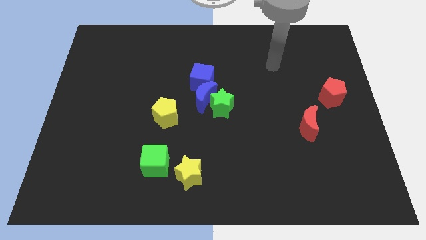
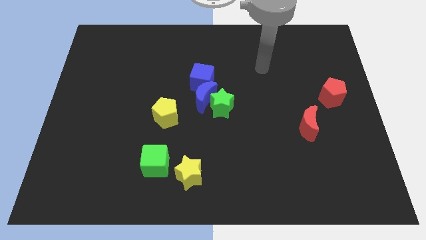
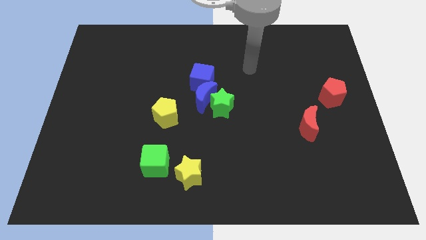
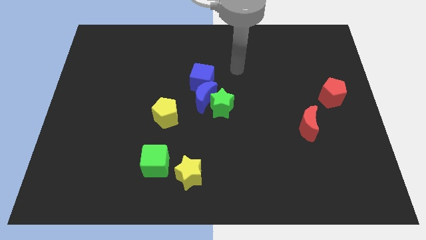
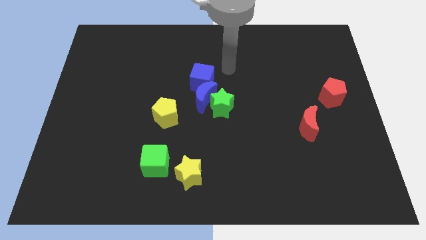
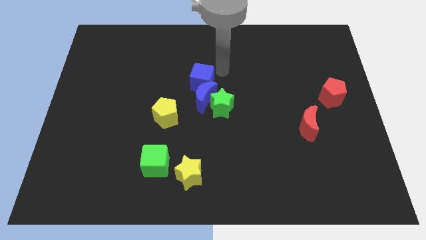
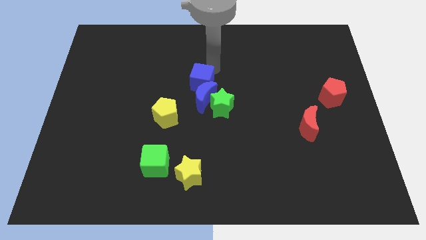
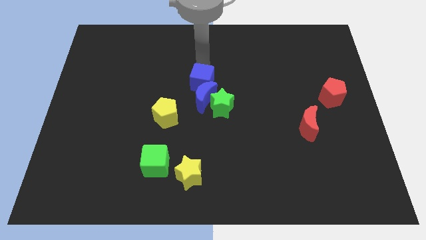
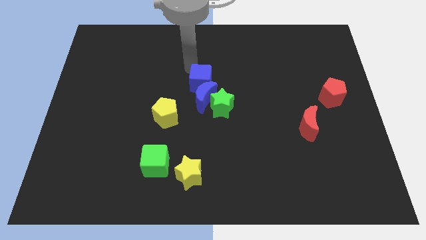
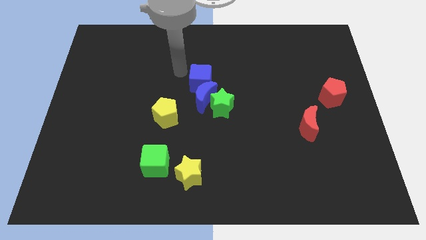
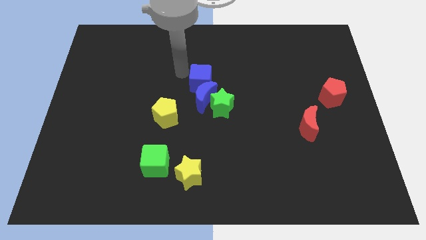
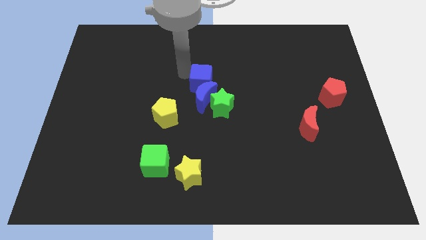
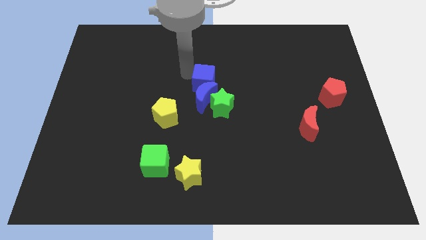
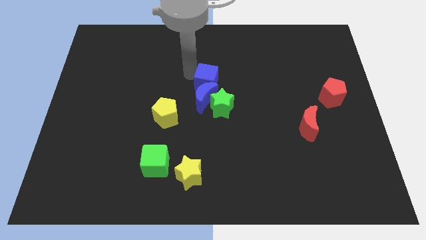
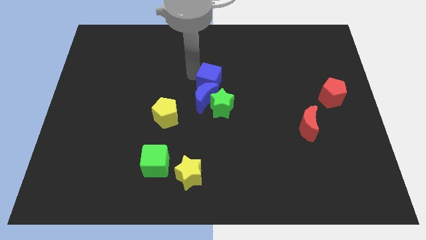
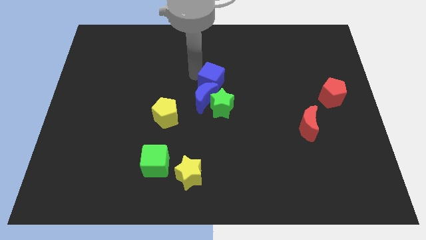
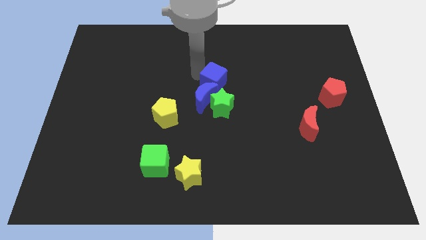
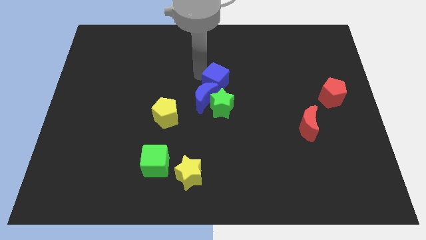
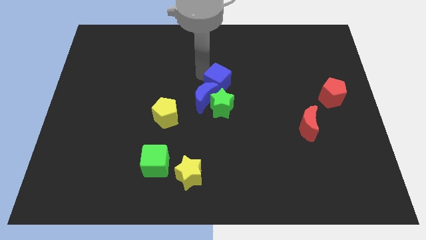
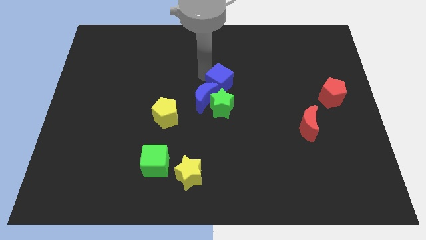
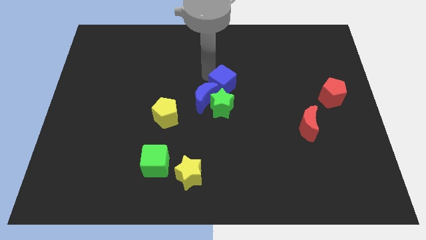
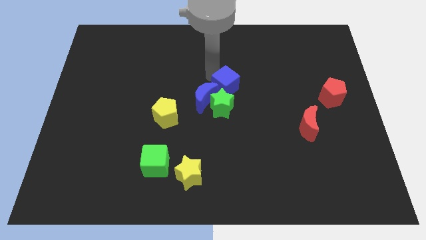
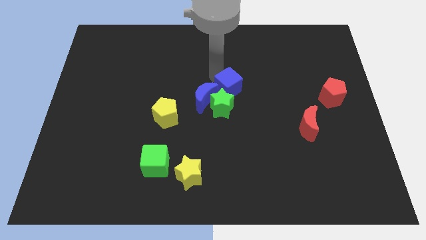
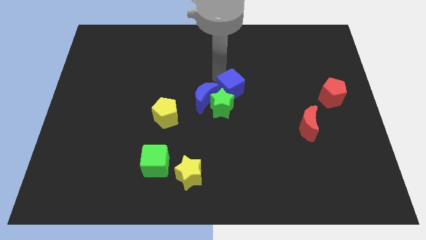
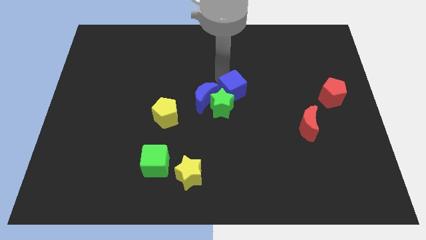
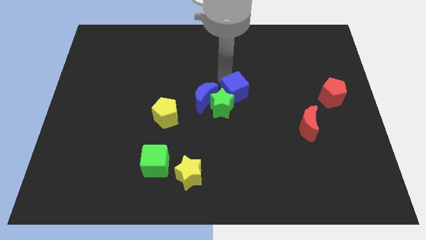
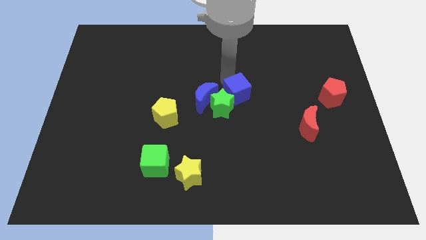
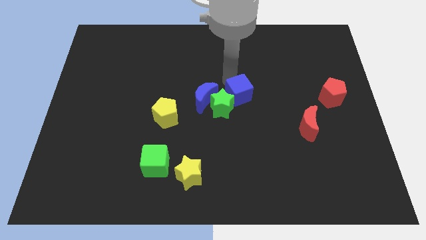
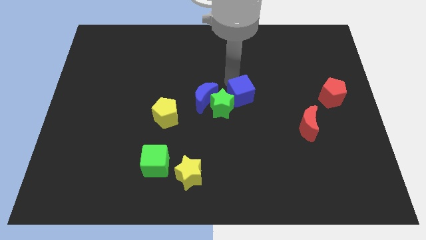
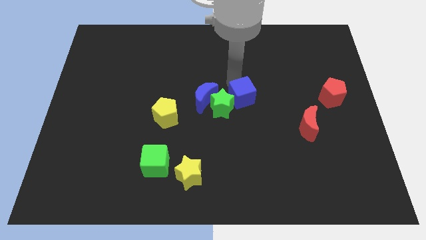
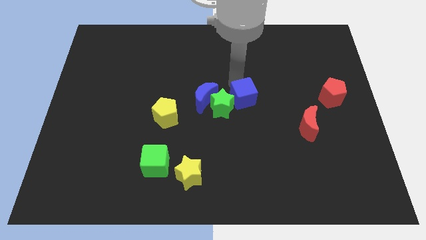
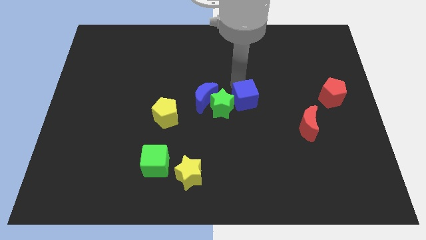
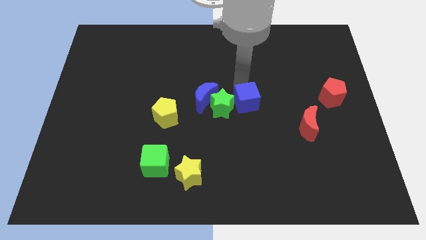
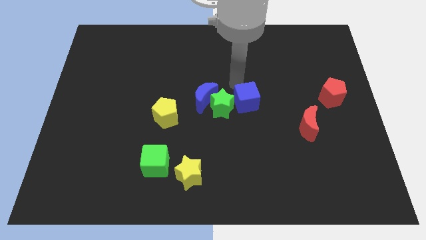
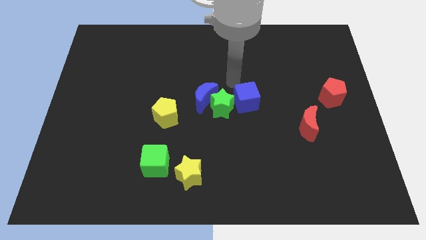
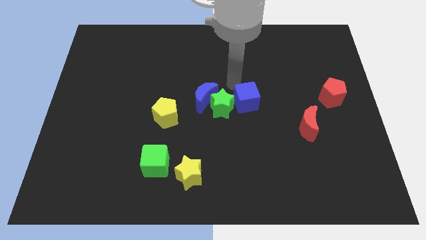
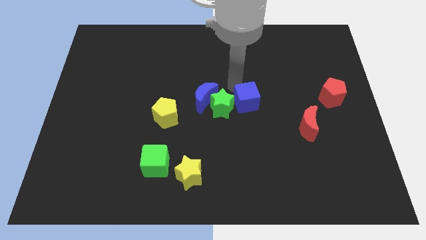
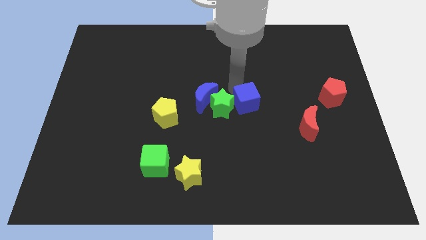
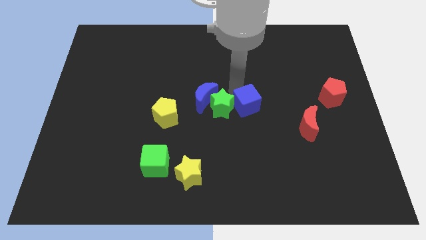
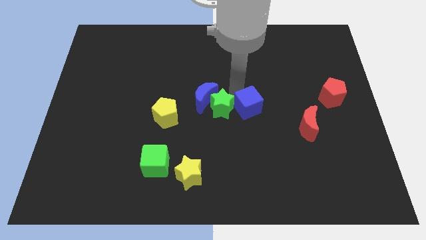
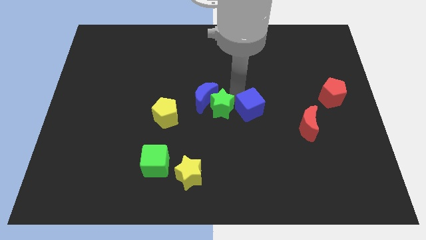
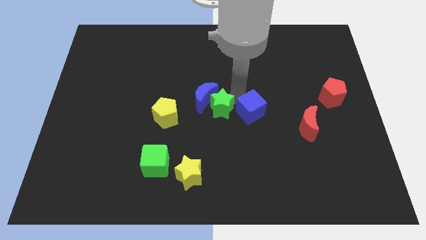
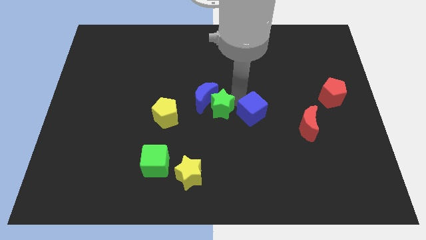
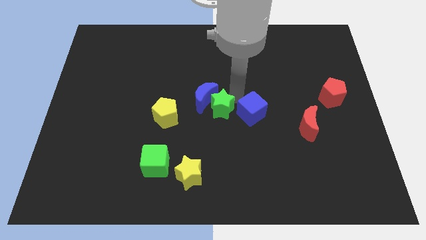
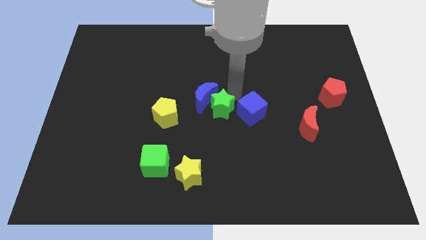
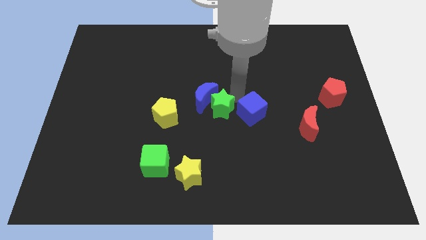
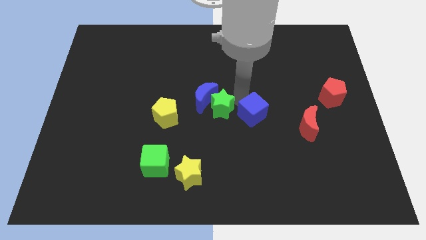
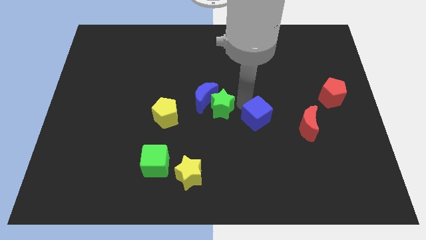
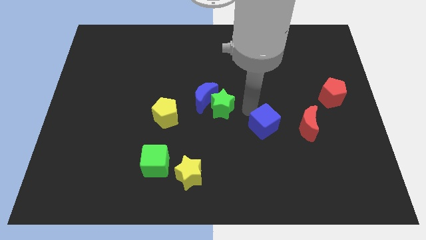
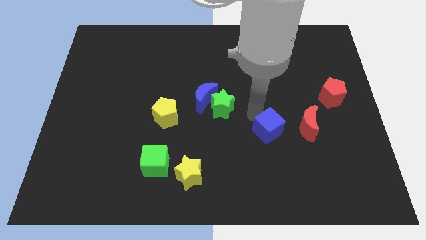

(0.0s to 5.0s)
slide the blue cube downwards and to the right

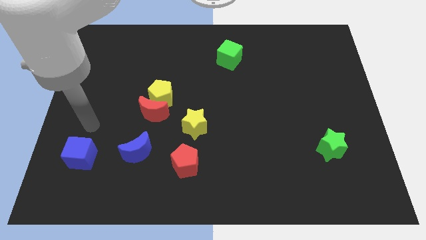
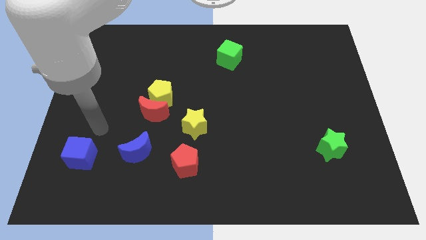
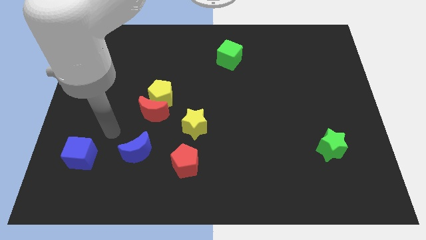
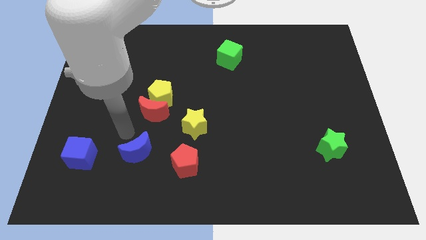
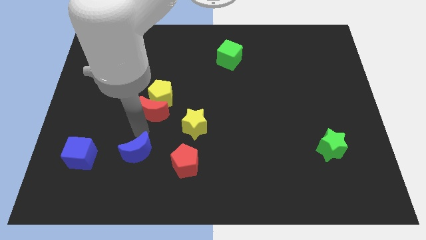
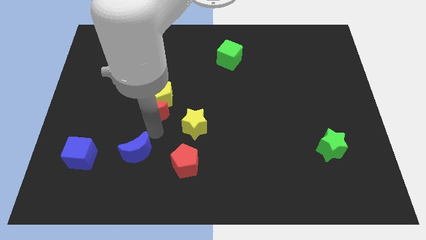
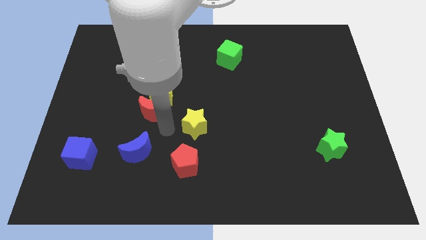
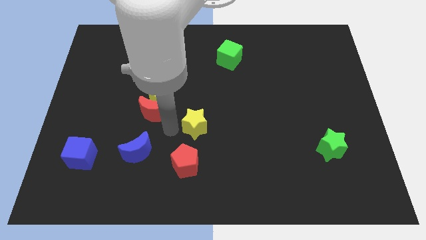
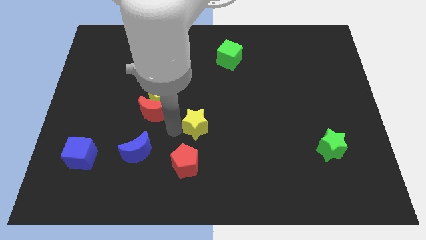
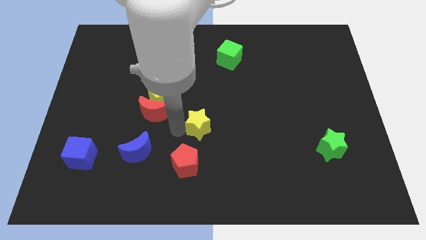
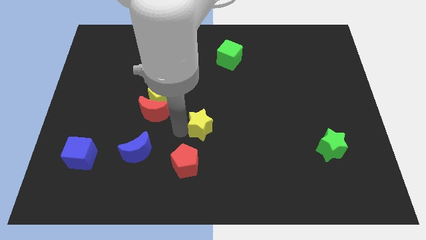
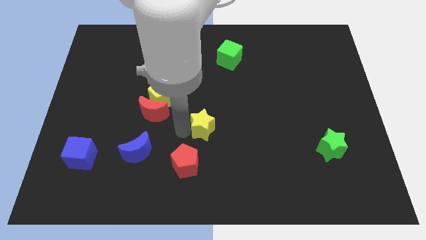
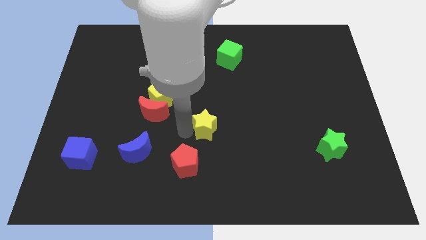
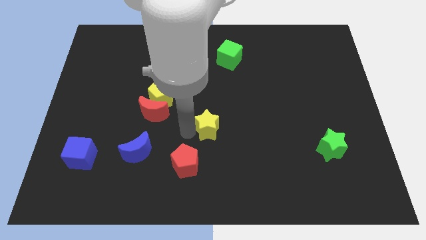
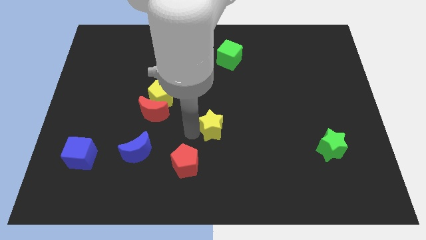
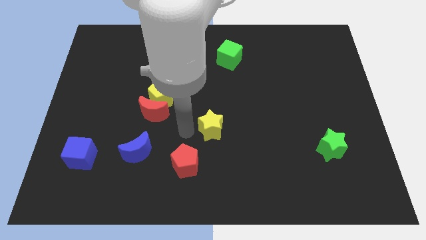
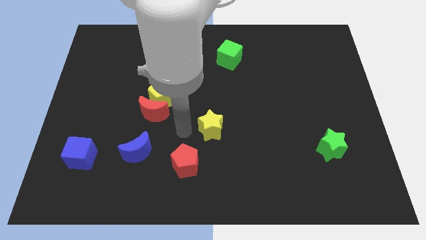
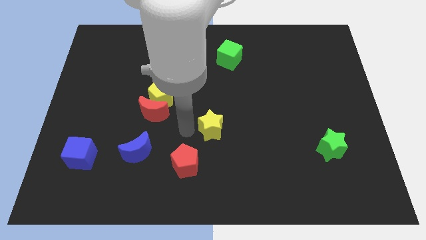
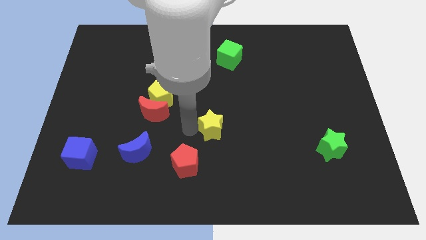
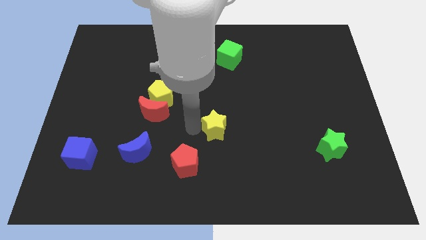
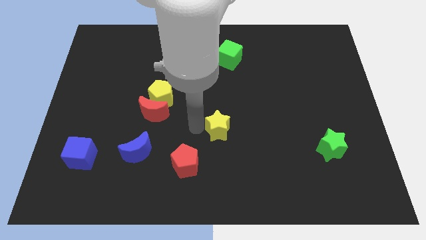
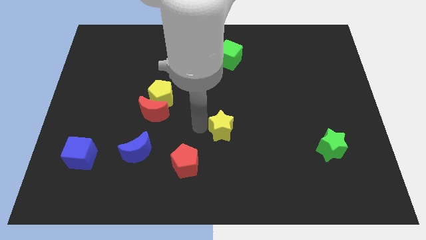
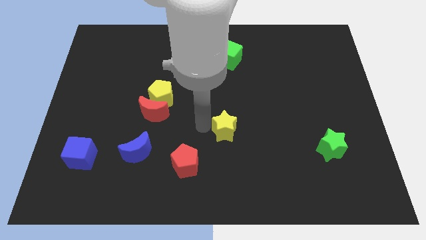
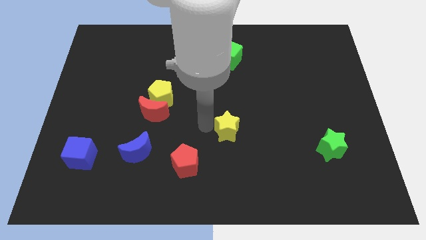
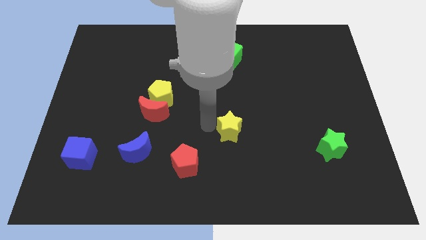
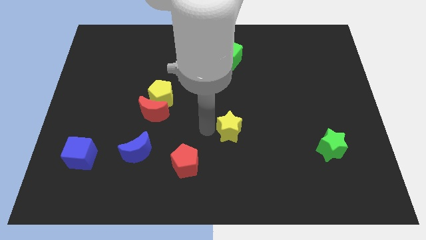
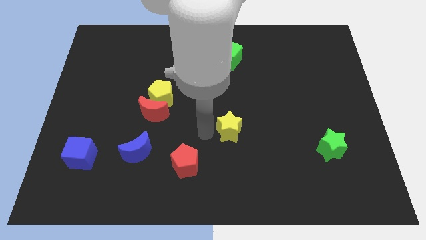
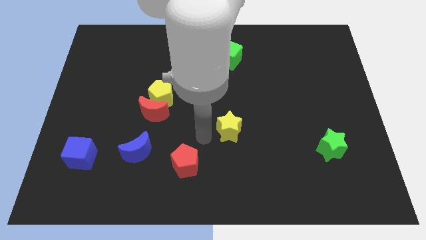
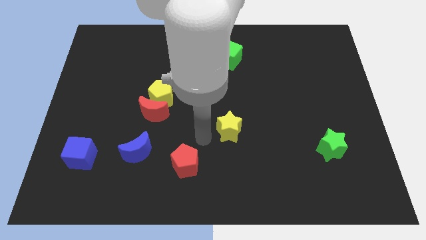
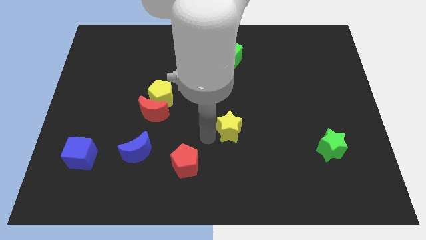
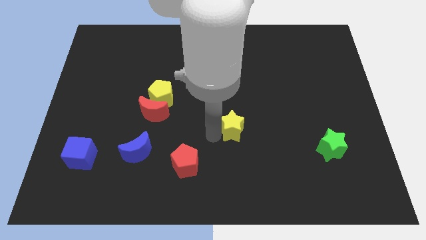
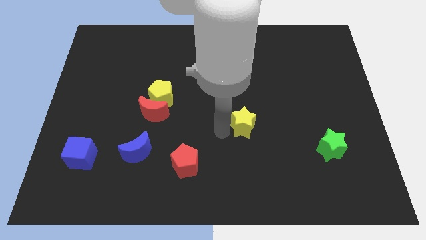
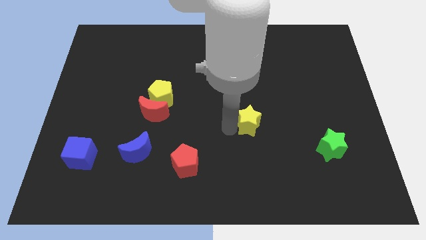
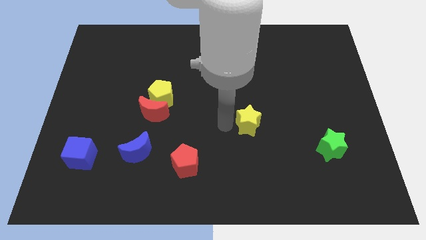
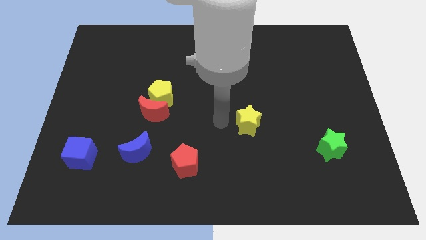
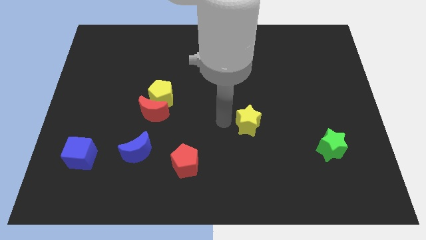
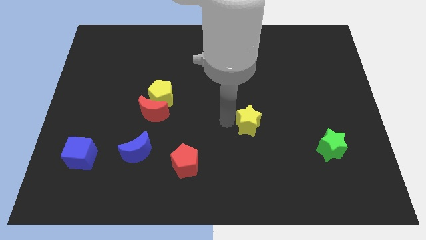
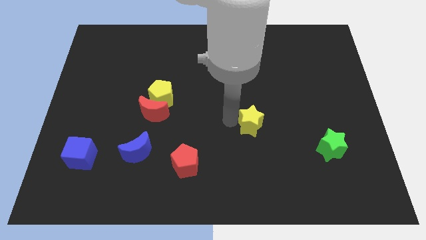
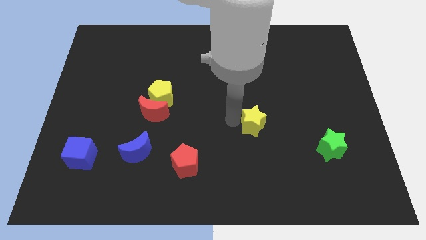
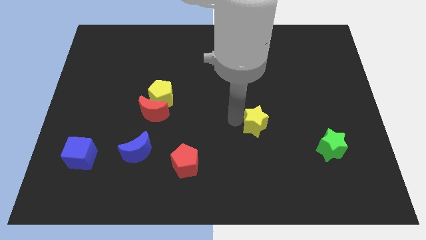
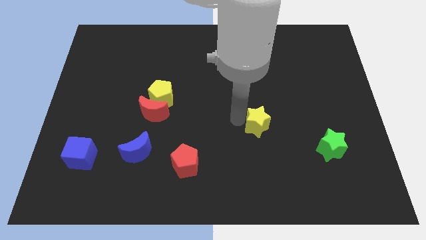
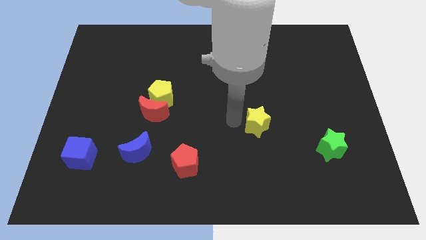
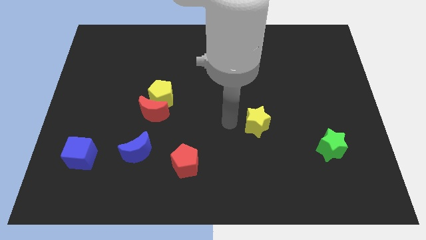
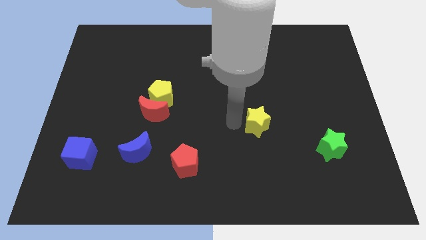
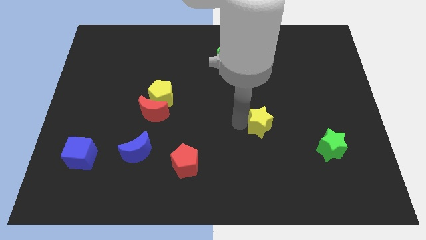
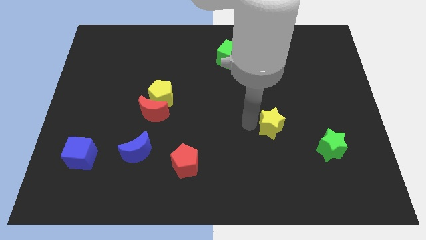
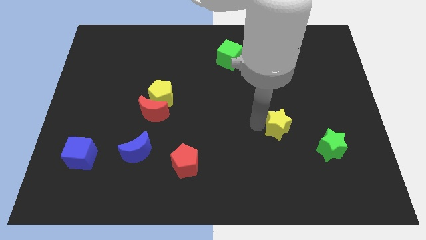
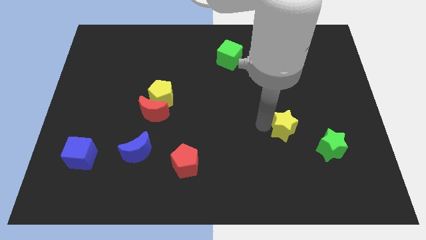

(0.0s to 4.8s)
push the yellow star to the right
